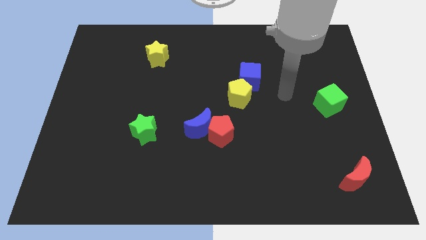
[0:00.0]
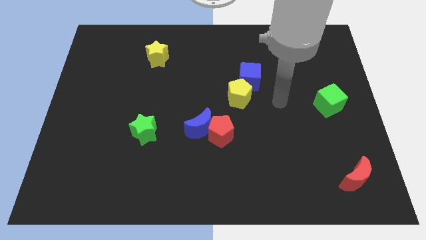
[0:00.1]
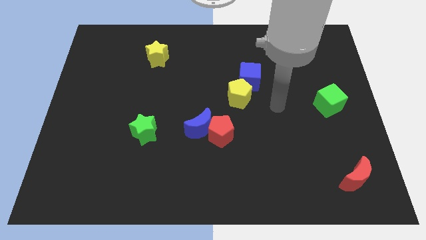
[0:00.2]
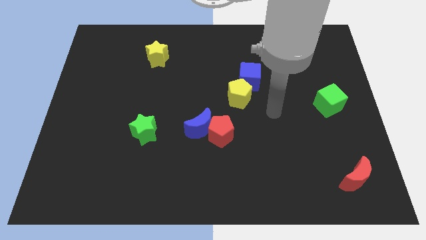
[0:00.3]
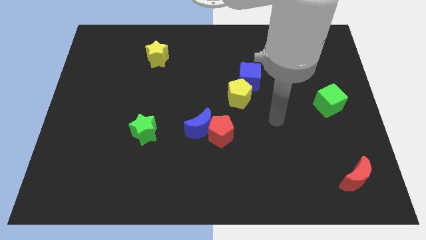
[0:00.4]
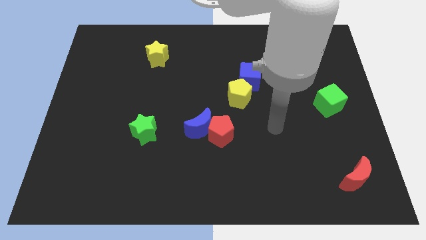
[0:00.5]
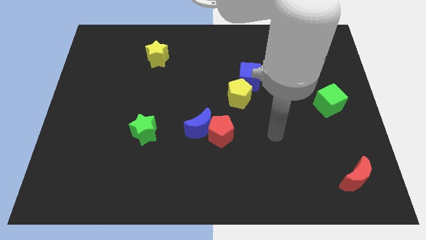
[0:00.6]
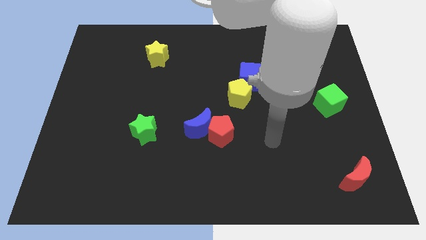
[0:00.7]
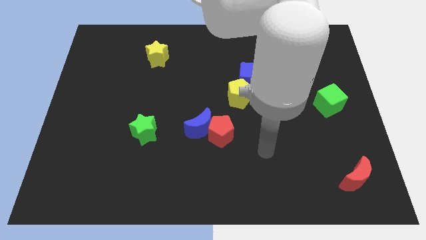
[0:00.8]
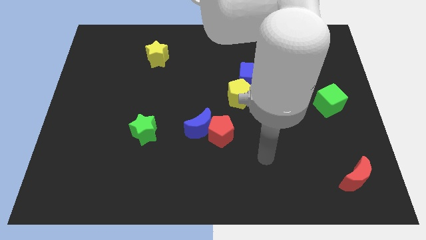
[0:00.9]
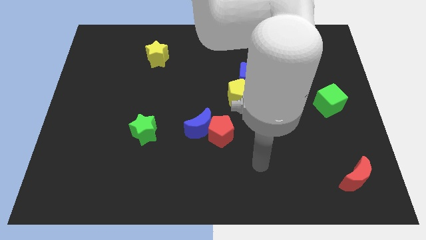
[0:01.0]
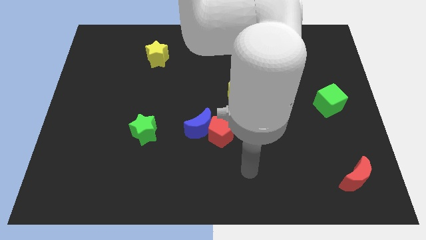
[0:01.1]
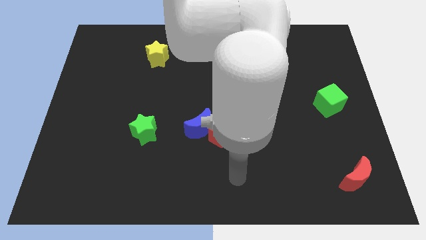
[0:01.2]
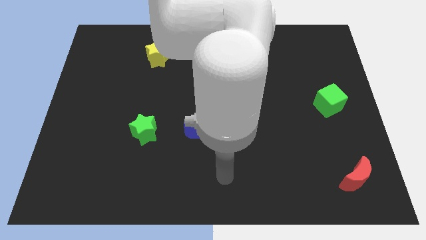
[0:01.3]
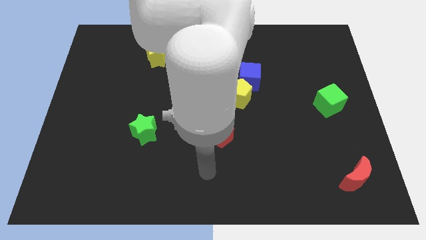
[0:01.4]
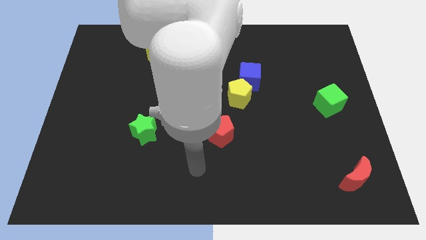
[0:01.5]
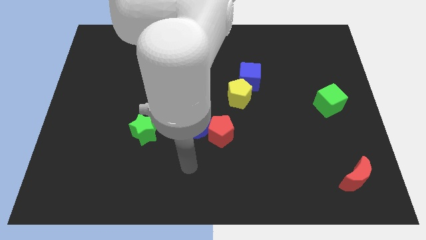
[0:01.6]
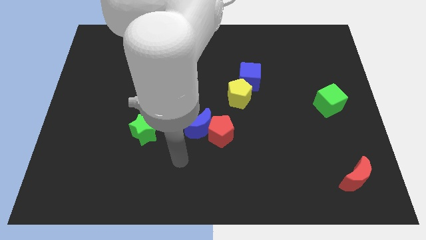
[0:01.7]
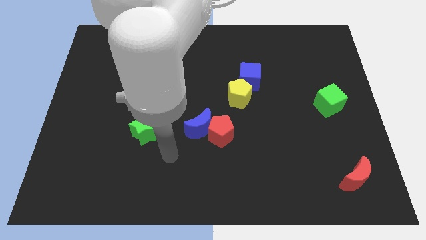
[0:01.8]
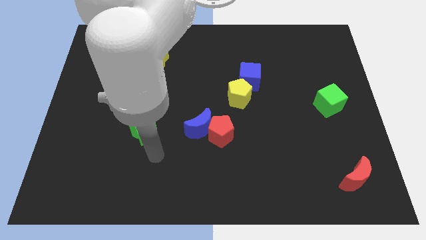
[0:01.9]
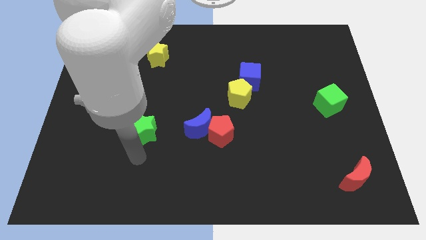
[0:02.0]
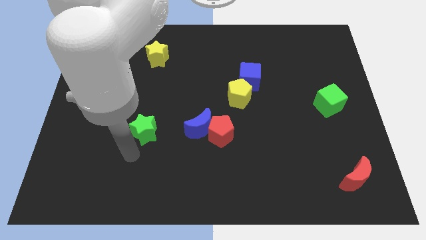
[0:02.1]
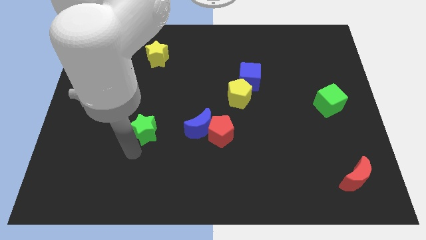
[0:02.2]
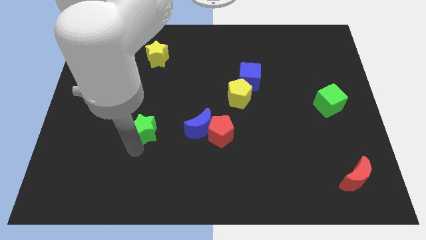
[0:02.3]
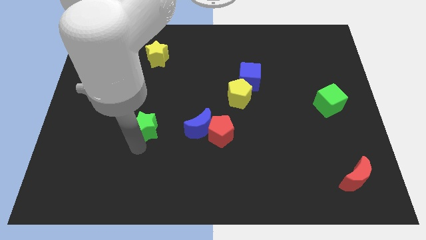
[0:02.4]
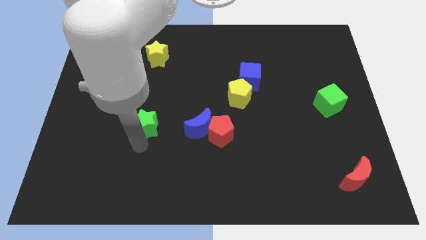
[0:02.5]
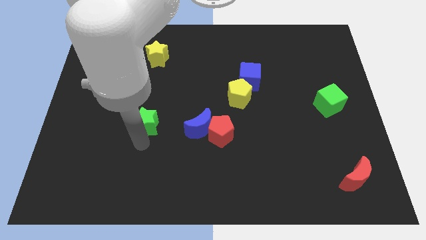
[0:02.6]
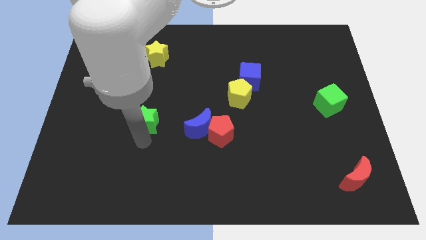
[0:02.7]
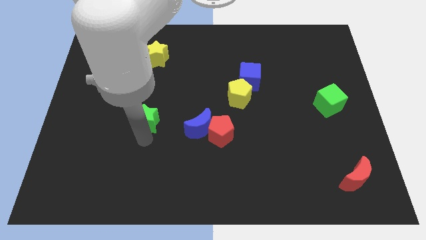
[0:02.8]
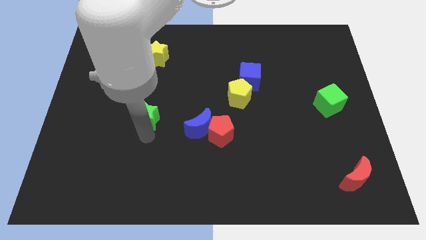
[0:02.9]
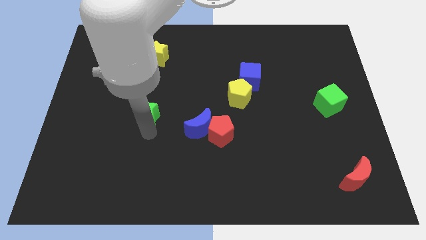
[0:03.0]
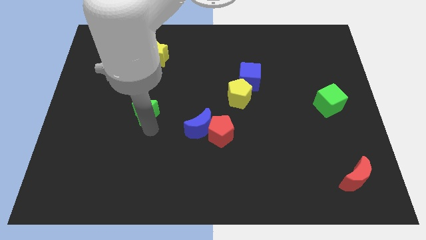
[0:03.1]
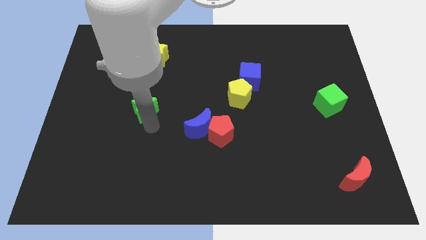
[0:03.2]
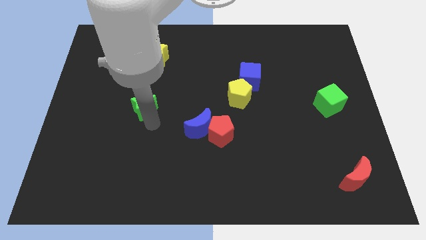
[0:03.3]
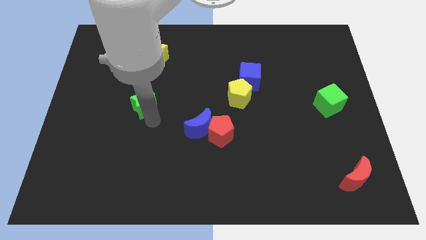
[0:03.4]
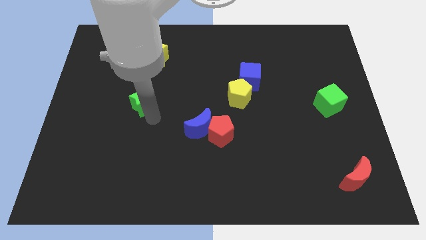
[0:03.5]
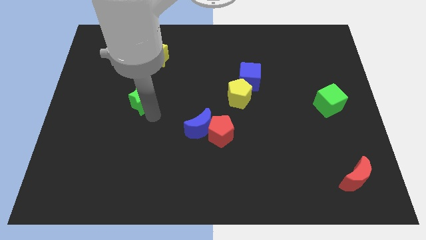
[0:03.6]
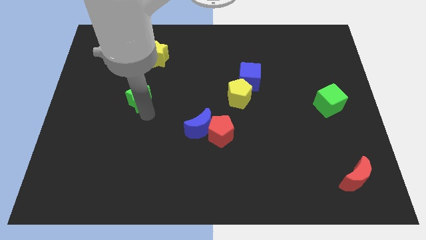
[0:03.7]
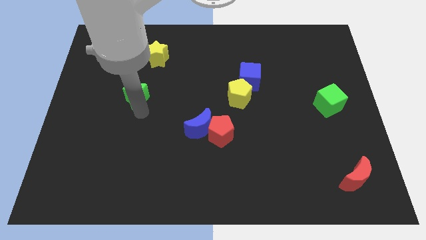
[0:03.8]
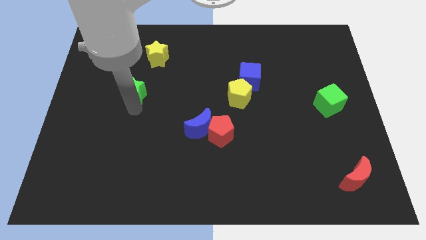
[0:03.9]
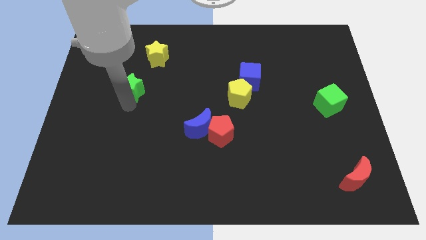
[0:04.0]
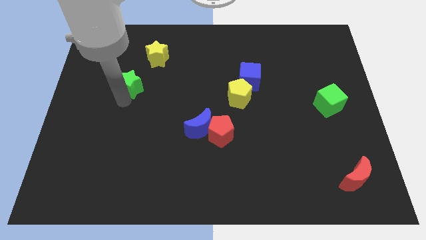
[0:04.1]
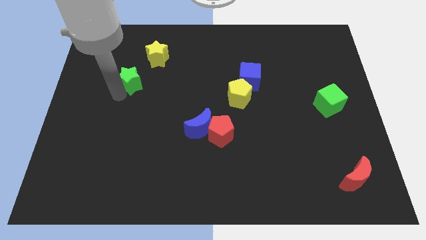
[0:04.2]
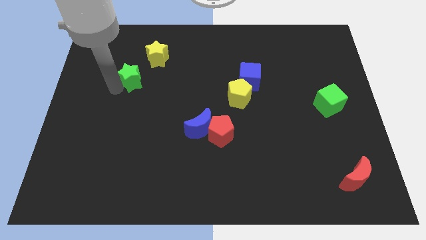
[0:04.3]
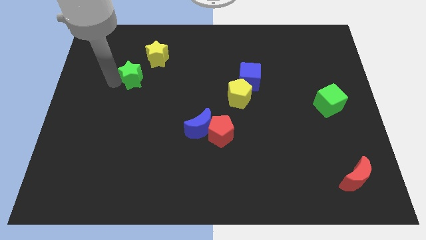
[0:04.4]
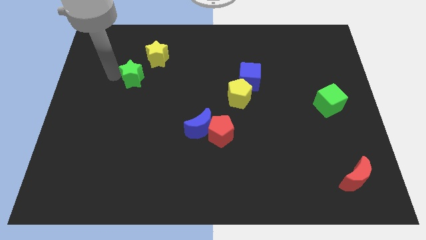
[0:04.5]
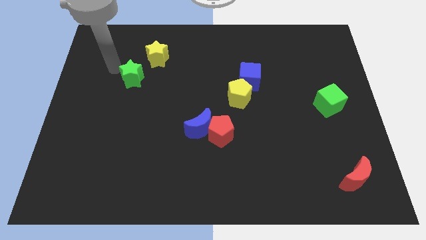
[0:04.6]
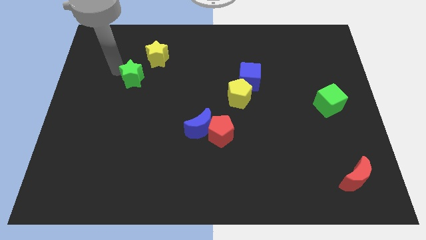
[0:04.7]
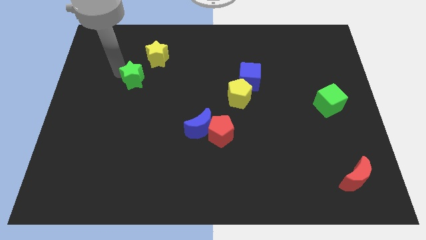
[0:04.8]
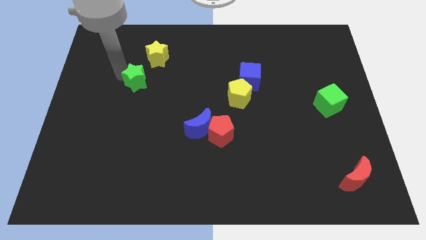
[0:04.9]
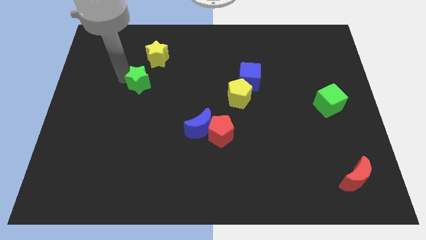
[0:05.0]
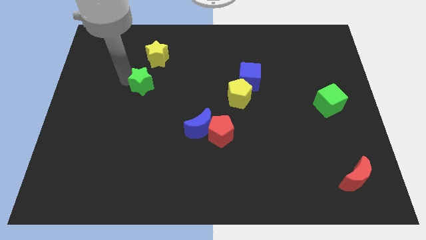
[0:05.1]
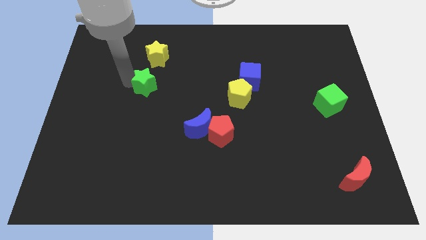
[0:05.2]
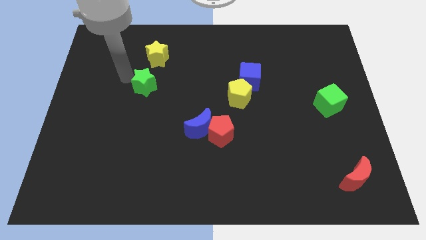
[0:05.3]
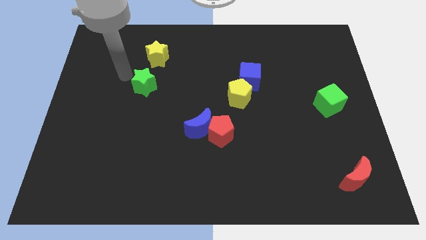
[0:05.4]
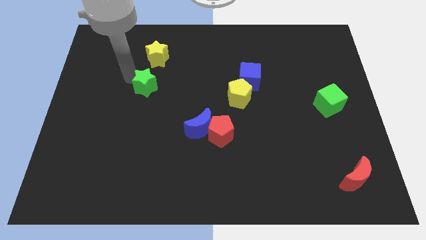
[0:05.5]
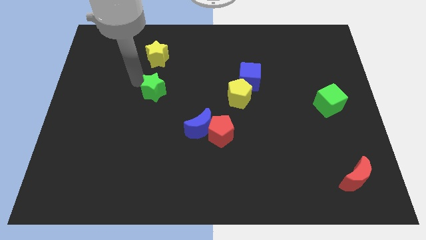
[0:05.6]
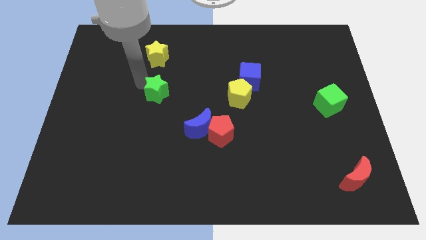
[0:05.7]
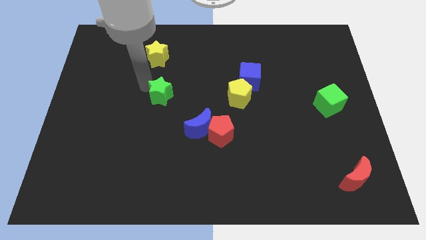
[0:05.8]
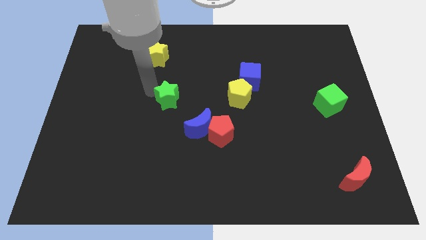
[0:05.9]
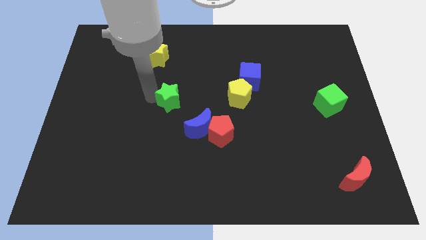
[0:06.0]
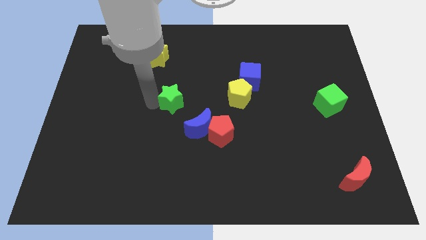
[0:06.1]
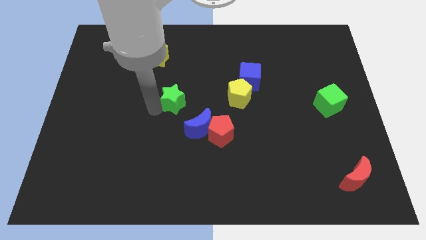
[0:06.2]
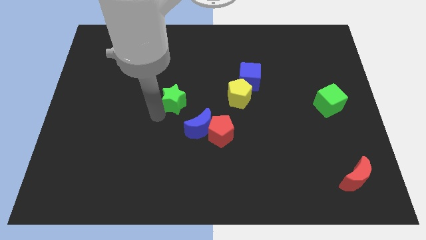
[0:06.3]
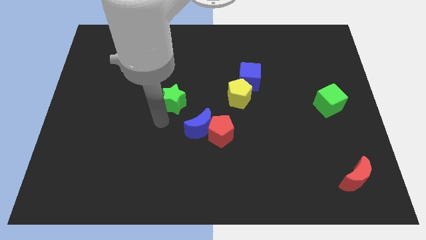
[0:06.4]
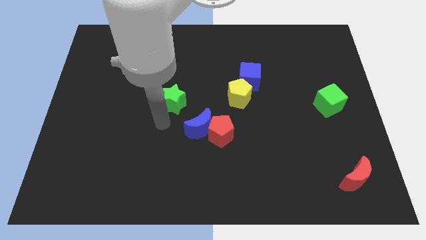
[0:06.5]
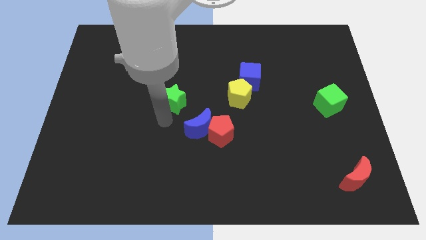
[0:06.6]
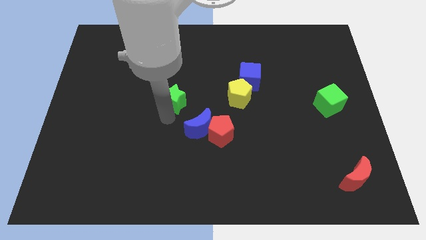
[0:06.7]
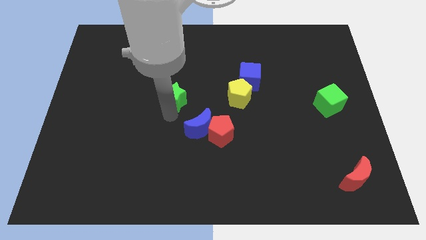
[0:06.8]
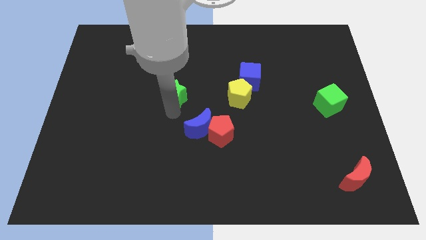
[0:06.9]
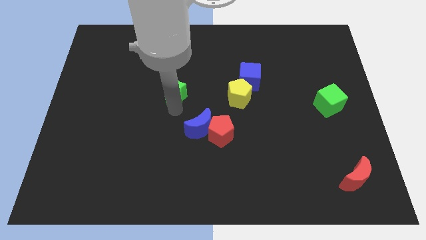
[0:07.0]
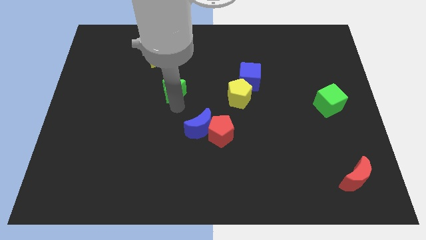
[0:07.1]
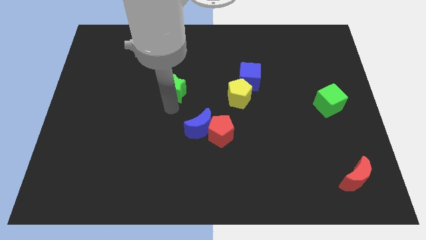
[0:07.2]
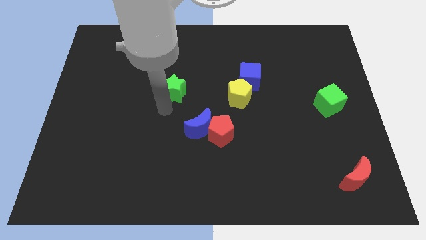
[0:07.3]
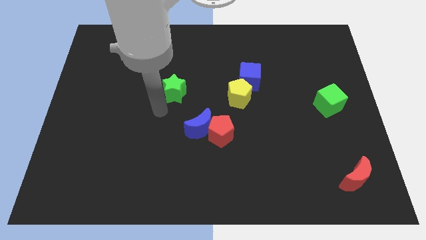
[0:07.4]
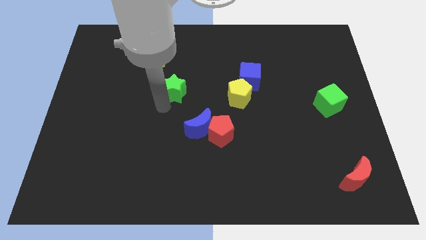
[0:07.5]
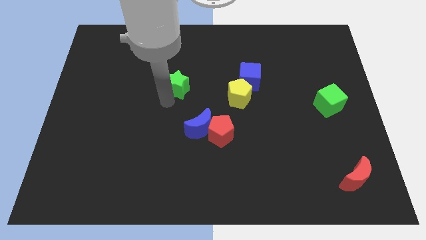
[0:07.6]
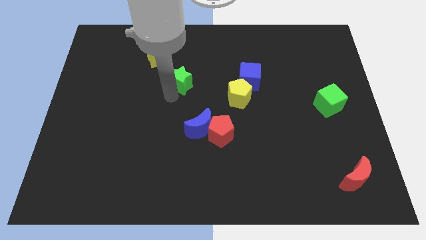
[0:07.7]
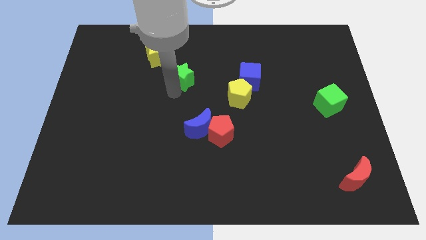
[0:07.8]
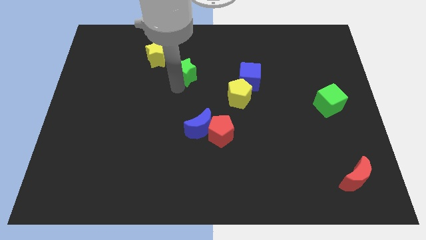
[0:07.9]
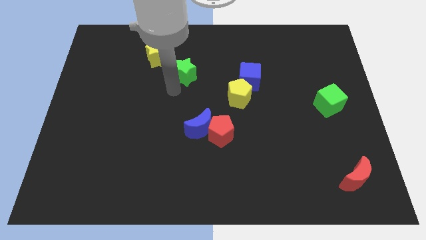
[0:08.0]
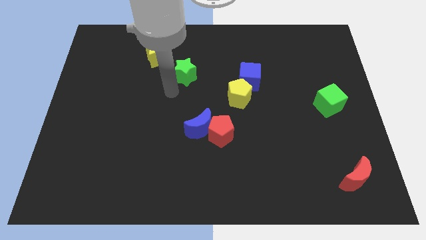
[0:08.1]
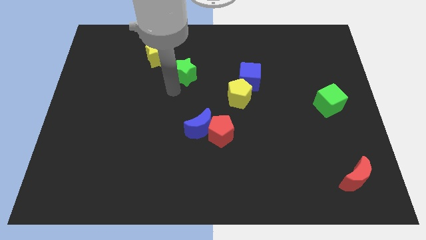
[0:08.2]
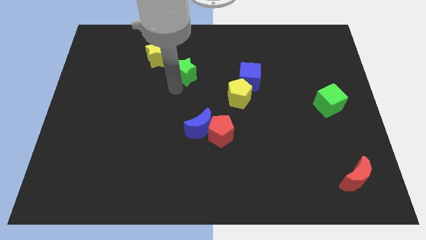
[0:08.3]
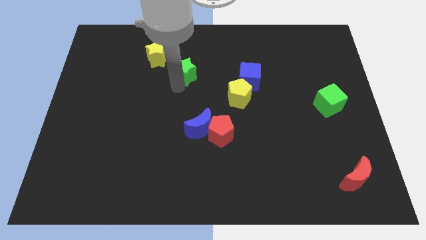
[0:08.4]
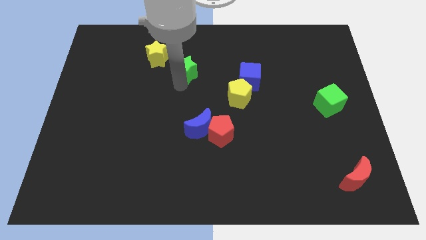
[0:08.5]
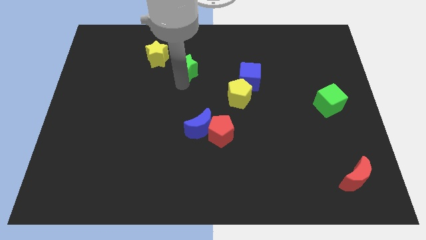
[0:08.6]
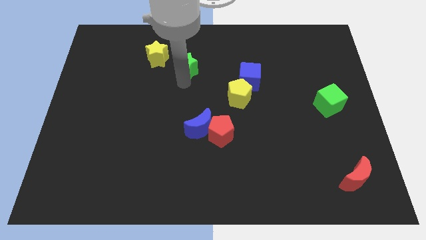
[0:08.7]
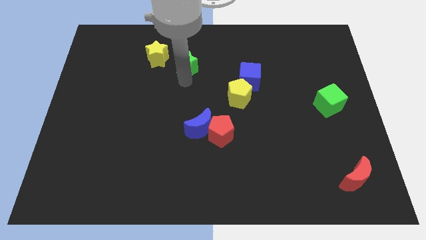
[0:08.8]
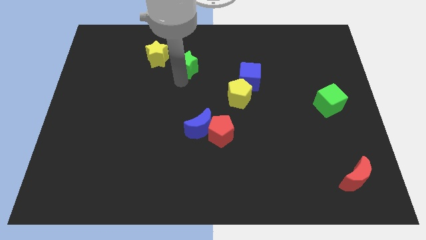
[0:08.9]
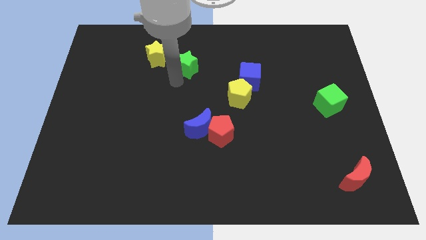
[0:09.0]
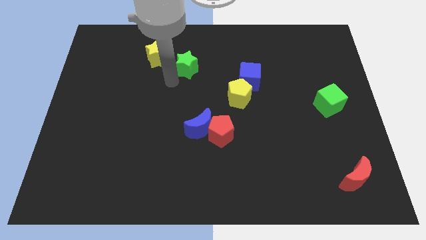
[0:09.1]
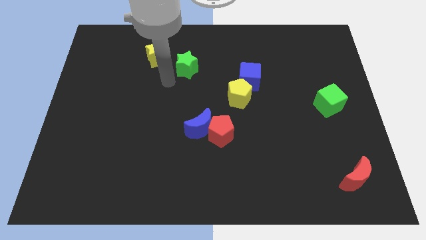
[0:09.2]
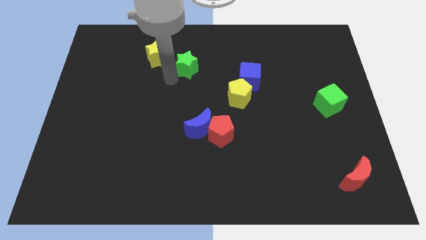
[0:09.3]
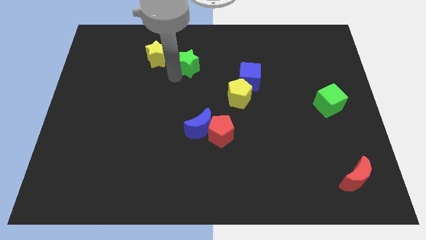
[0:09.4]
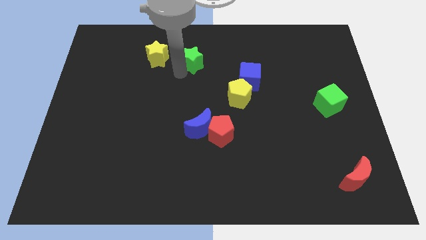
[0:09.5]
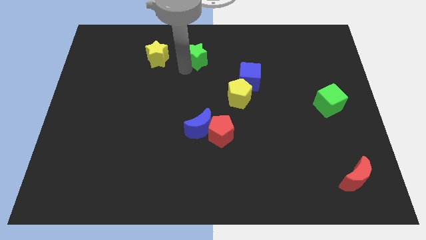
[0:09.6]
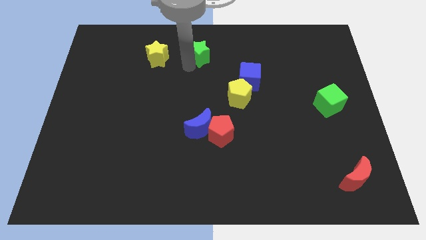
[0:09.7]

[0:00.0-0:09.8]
put the green star to the top side
